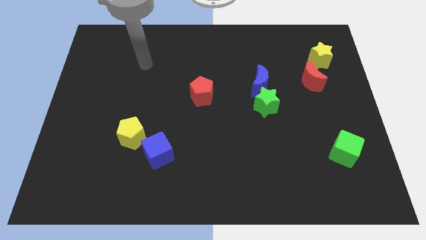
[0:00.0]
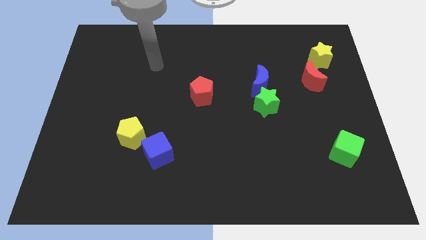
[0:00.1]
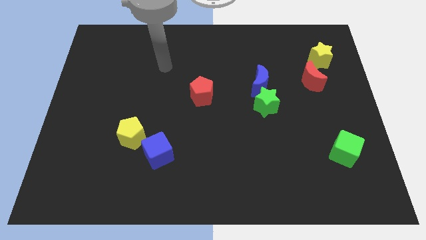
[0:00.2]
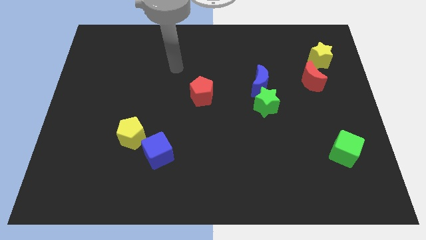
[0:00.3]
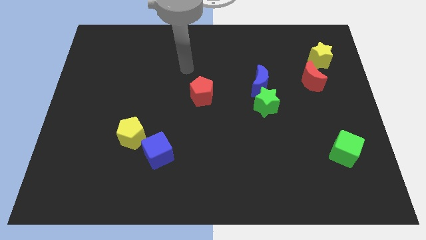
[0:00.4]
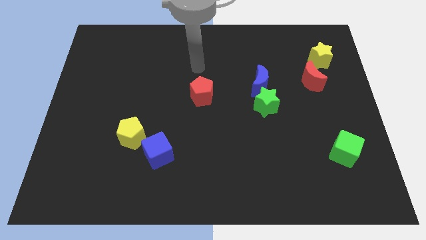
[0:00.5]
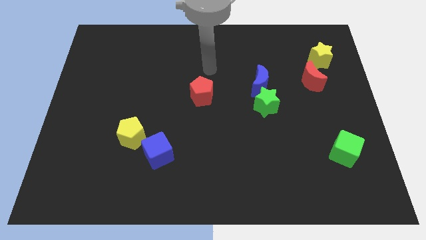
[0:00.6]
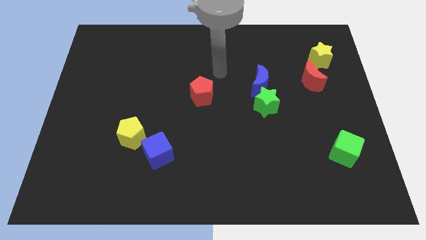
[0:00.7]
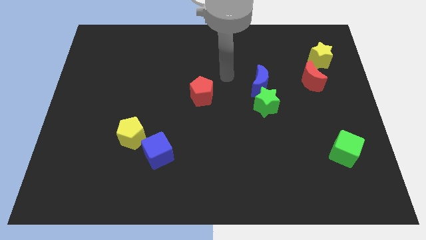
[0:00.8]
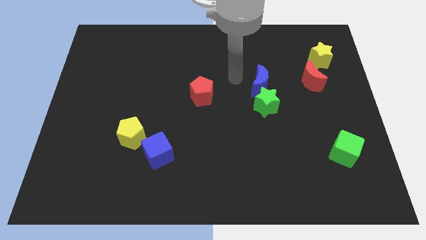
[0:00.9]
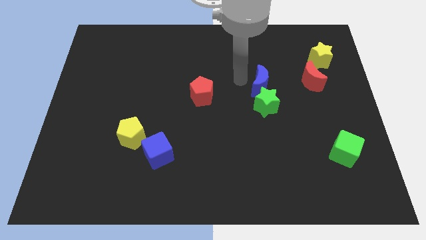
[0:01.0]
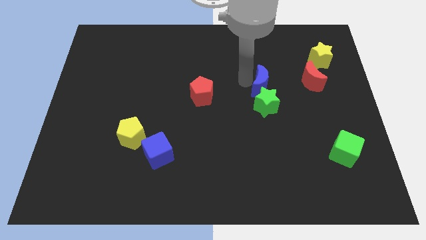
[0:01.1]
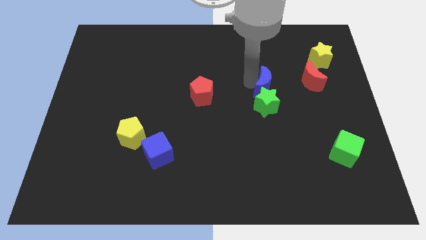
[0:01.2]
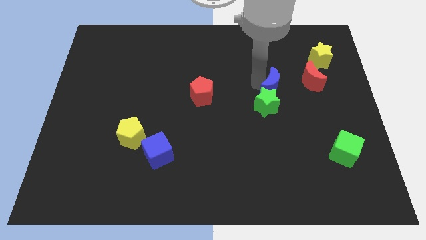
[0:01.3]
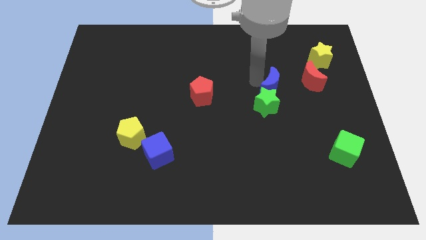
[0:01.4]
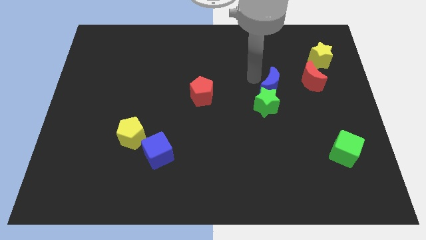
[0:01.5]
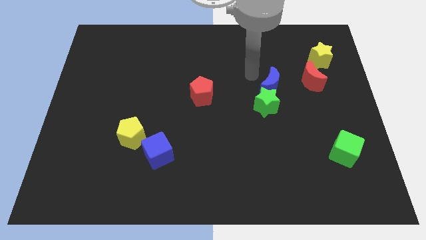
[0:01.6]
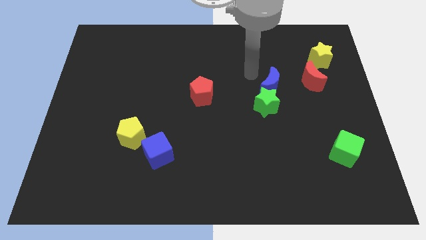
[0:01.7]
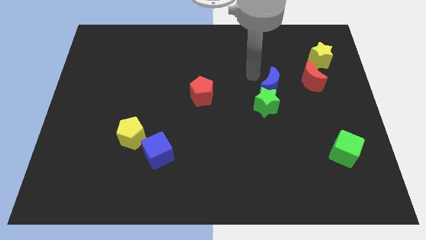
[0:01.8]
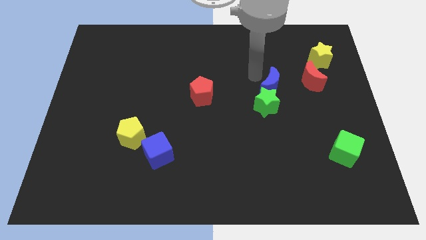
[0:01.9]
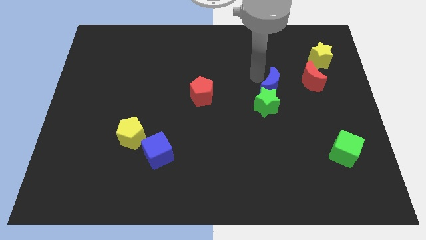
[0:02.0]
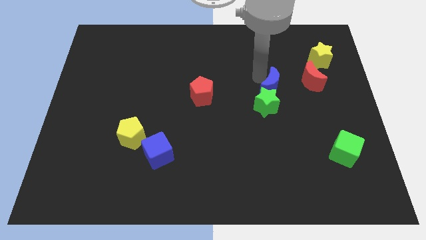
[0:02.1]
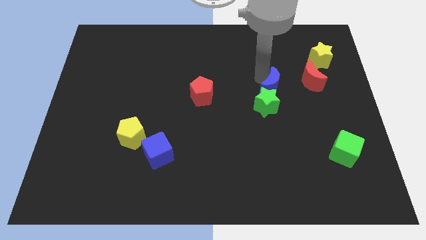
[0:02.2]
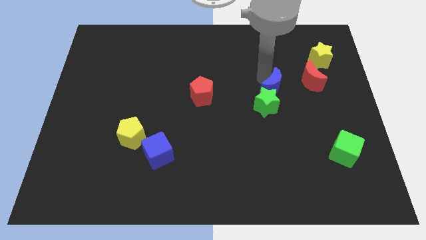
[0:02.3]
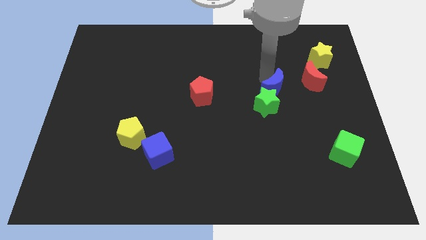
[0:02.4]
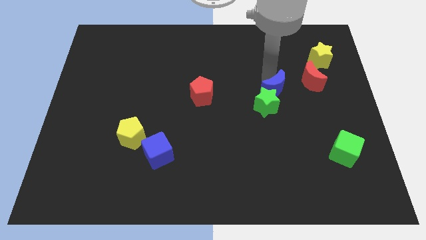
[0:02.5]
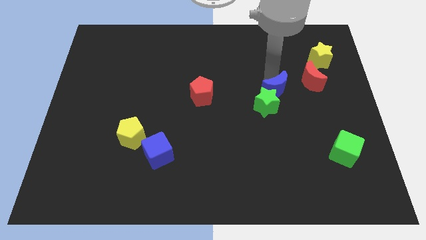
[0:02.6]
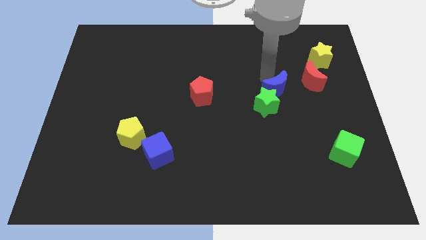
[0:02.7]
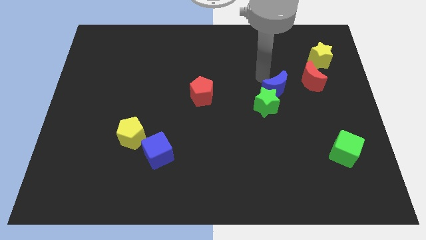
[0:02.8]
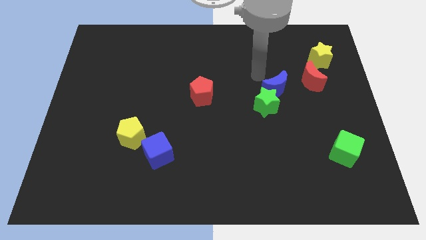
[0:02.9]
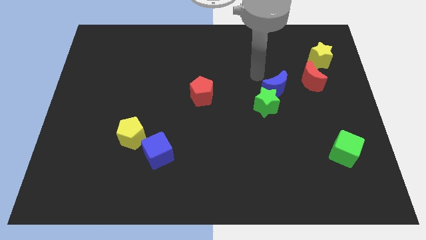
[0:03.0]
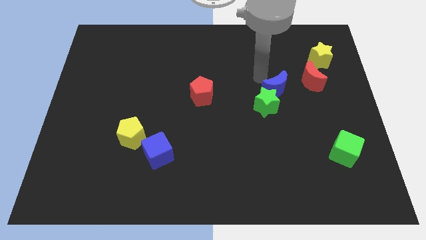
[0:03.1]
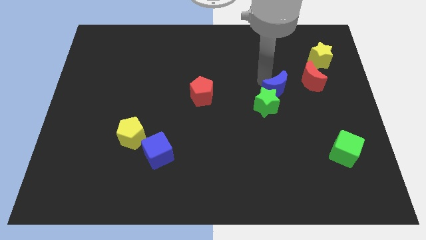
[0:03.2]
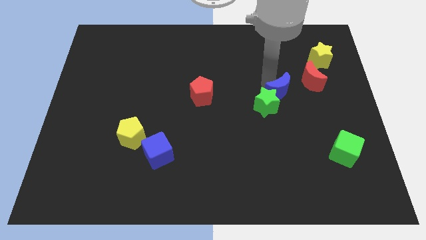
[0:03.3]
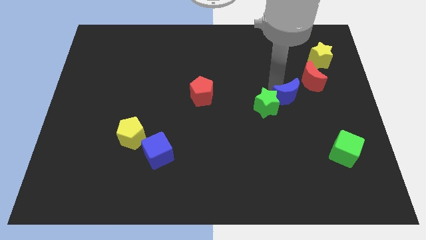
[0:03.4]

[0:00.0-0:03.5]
move the blue moon down and then right somewhat

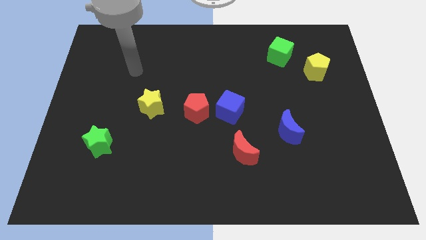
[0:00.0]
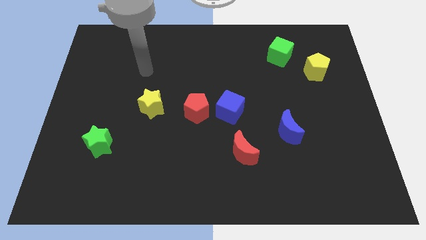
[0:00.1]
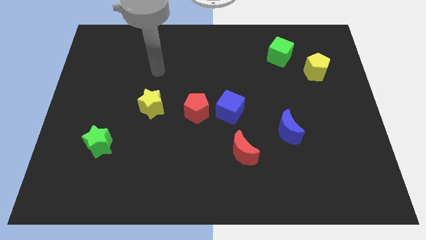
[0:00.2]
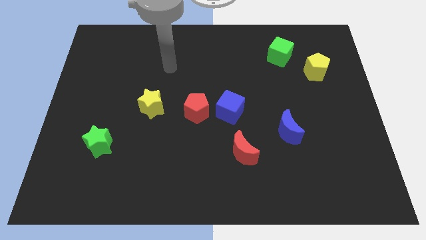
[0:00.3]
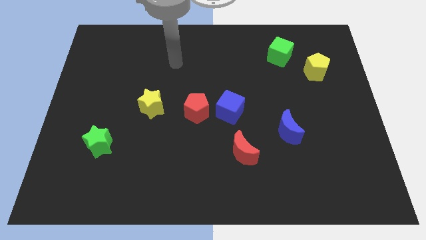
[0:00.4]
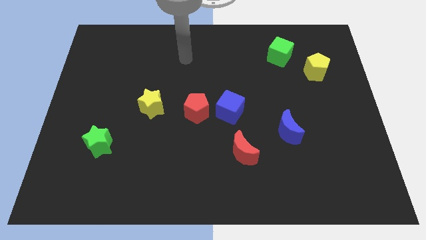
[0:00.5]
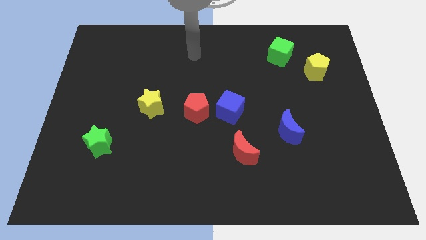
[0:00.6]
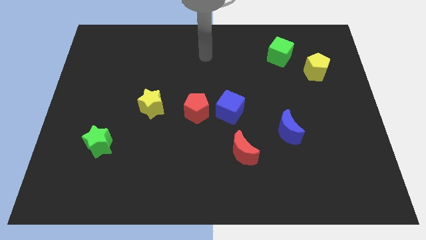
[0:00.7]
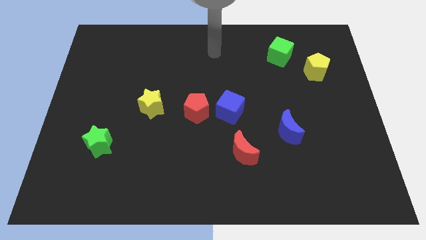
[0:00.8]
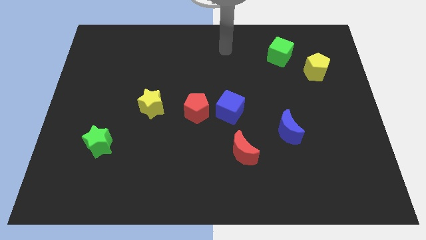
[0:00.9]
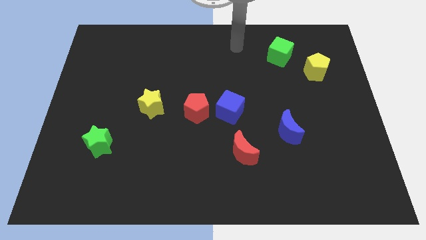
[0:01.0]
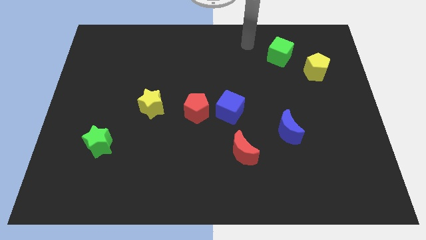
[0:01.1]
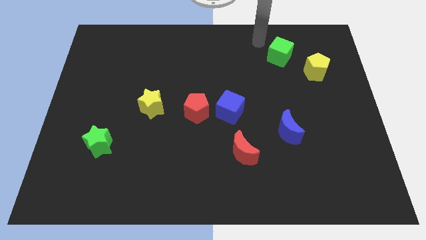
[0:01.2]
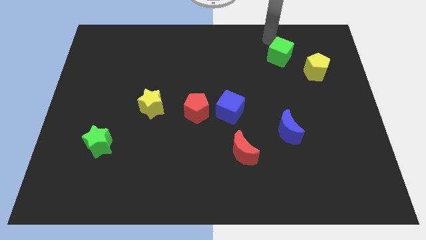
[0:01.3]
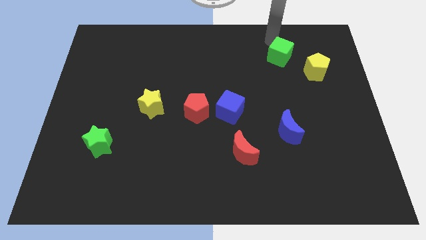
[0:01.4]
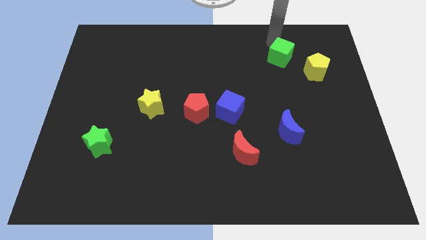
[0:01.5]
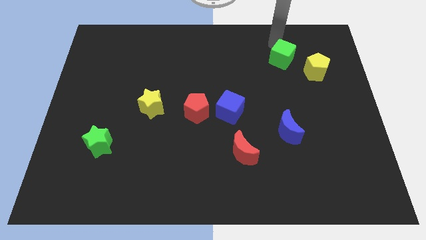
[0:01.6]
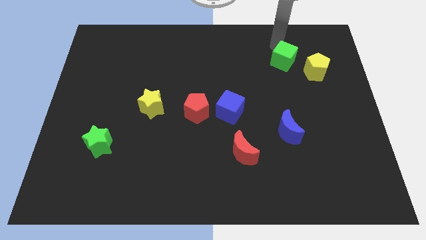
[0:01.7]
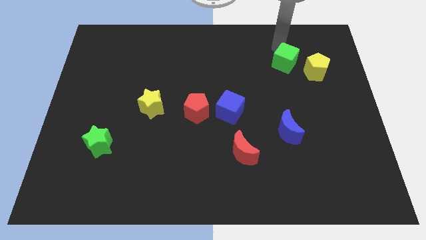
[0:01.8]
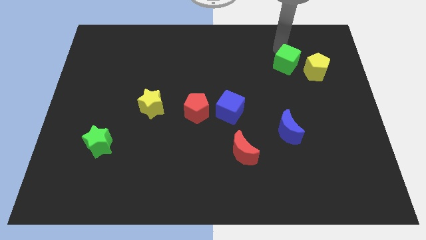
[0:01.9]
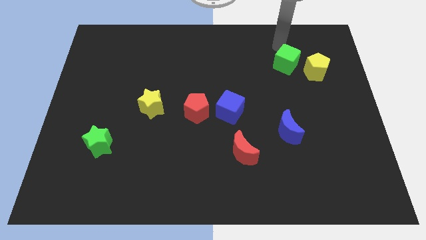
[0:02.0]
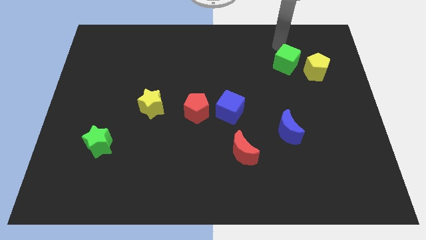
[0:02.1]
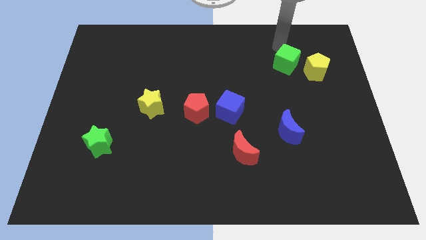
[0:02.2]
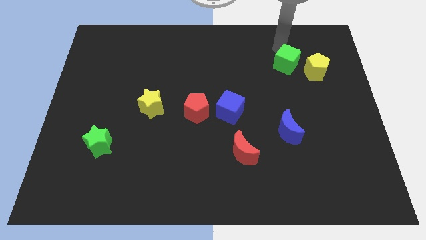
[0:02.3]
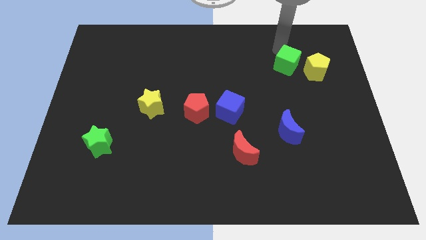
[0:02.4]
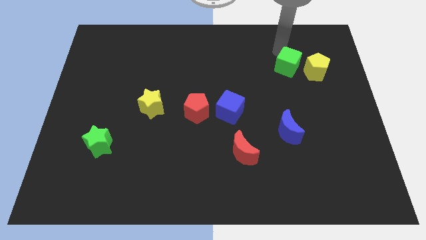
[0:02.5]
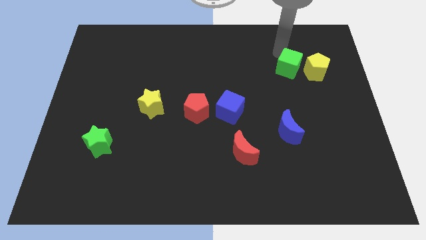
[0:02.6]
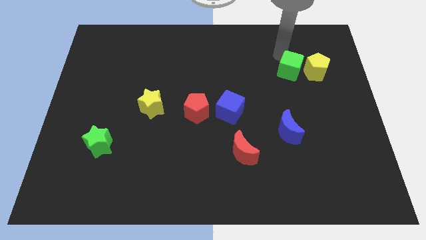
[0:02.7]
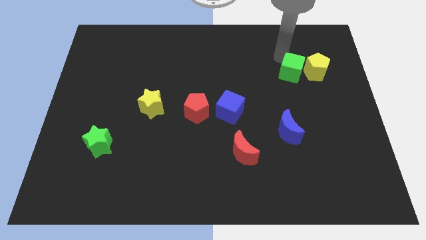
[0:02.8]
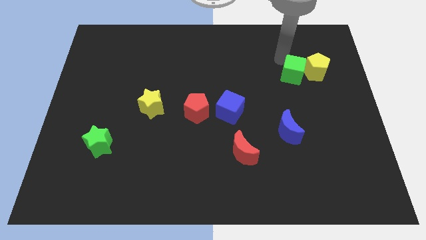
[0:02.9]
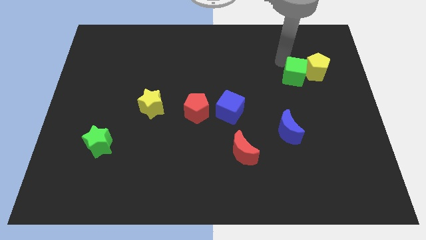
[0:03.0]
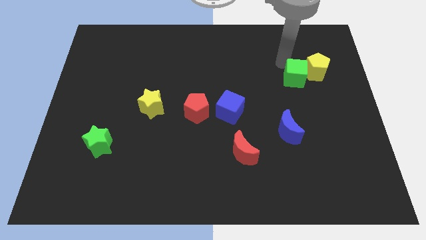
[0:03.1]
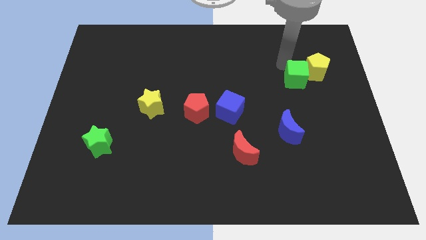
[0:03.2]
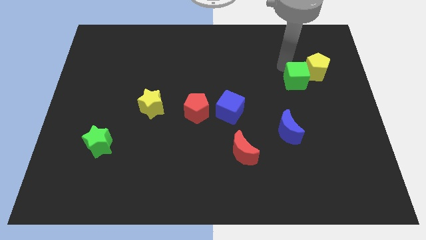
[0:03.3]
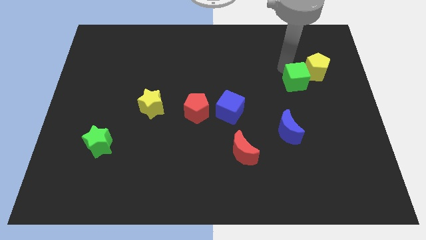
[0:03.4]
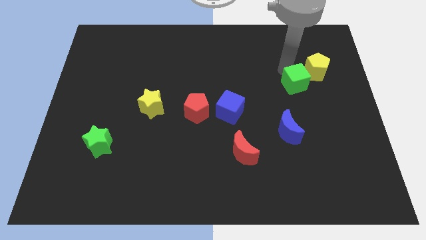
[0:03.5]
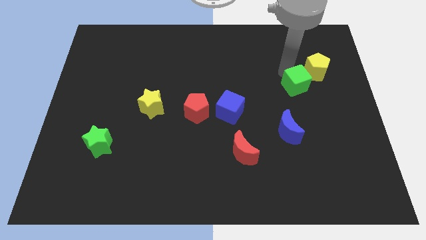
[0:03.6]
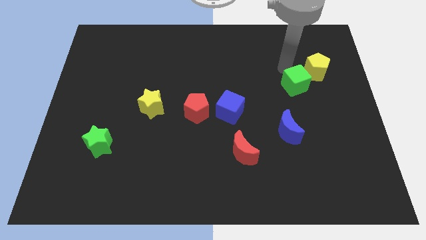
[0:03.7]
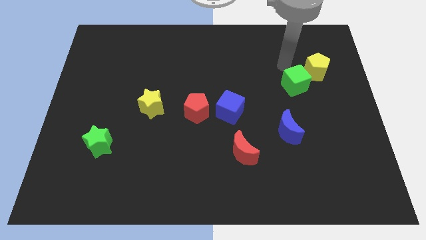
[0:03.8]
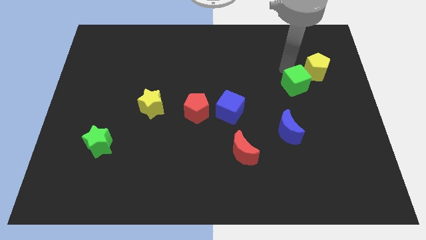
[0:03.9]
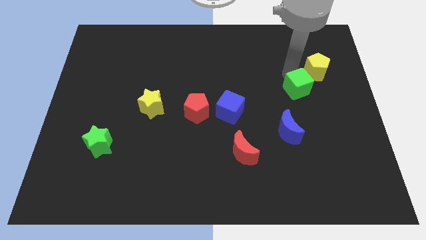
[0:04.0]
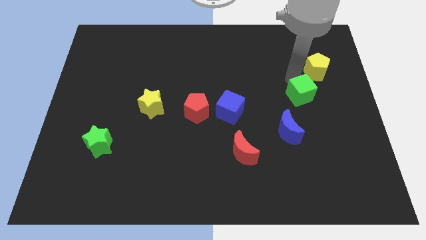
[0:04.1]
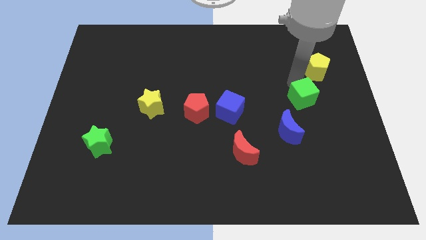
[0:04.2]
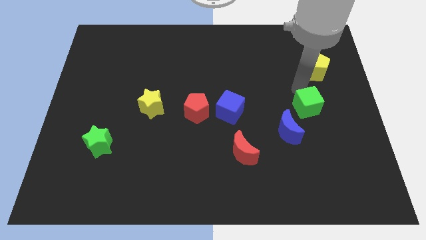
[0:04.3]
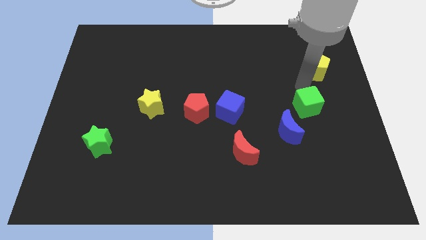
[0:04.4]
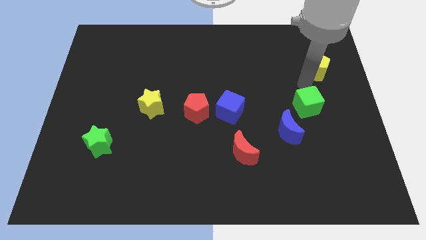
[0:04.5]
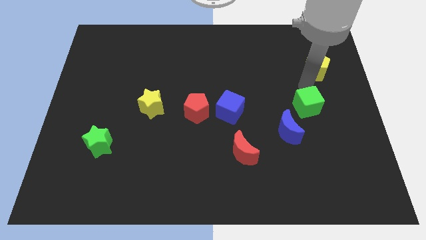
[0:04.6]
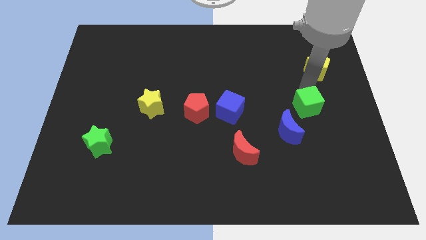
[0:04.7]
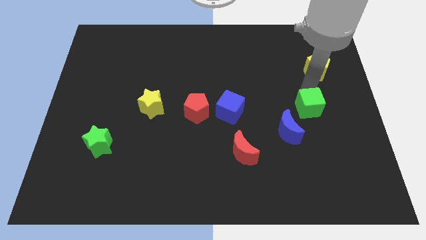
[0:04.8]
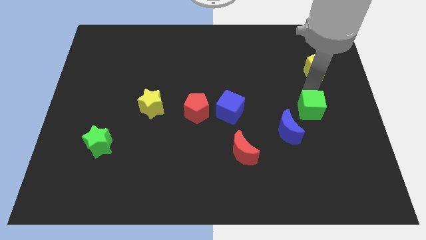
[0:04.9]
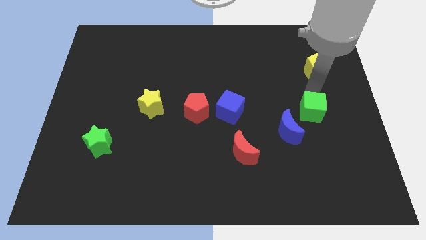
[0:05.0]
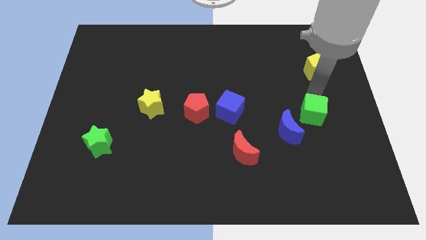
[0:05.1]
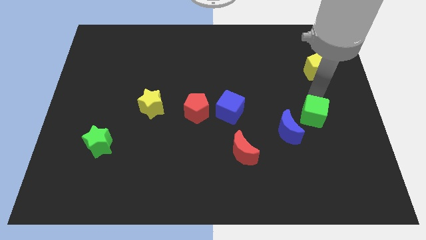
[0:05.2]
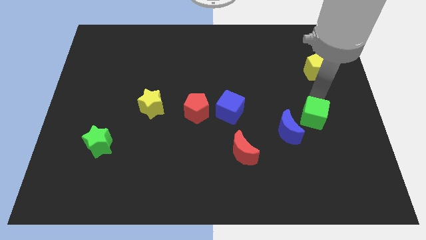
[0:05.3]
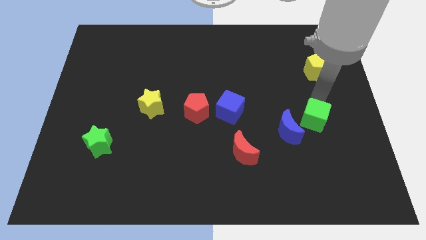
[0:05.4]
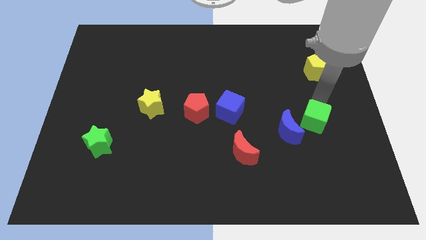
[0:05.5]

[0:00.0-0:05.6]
slide the green cube downwards
